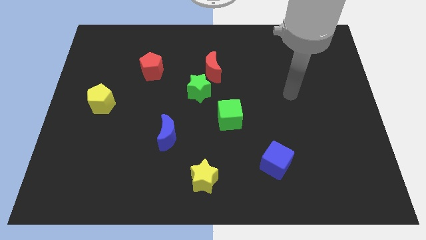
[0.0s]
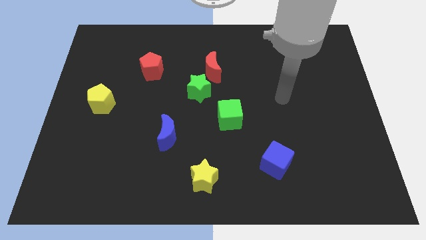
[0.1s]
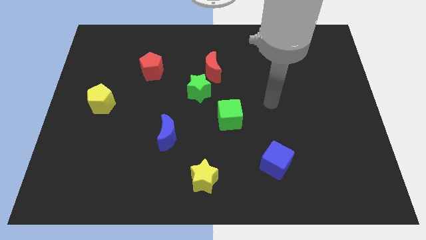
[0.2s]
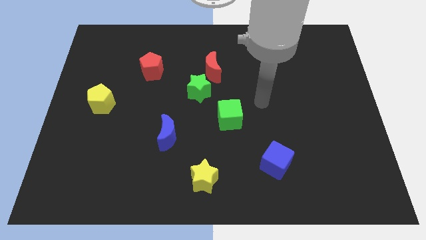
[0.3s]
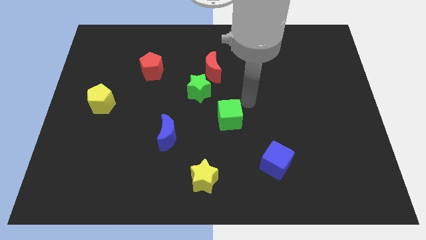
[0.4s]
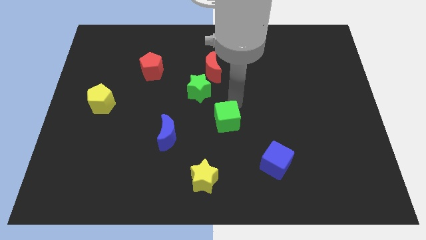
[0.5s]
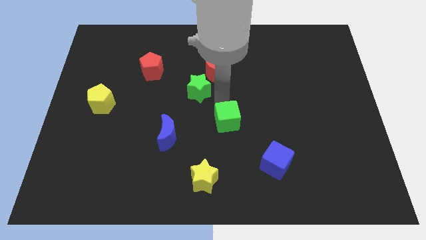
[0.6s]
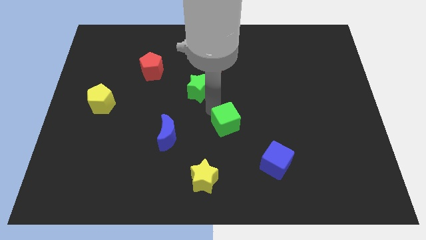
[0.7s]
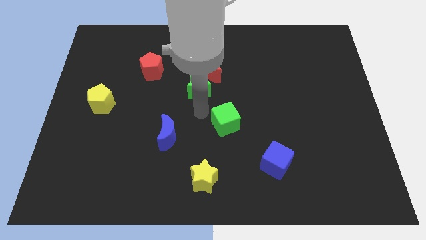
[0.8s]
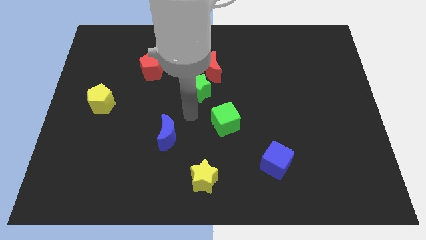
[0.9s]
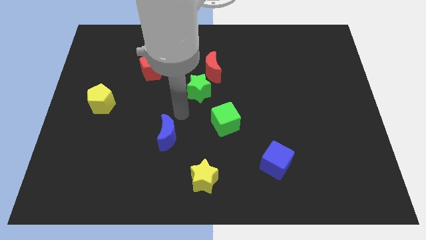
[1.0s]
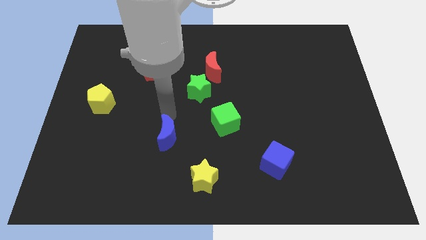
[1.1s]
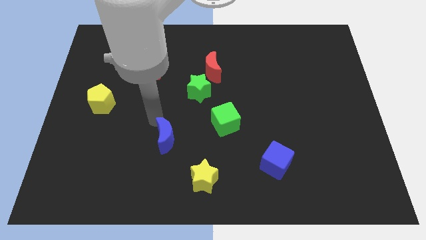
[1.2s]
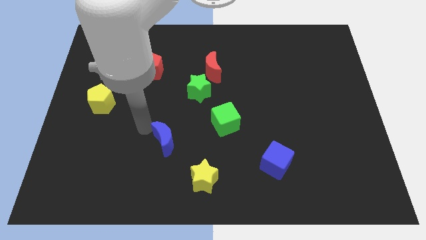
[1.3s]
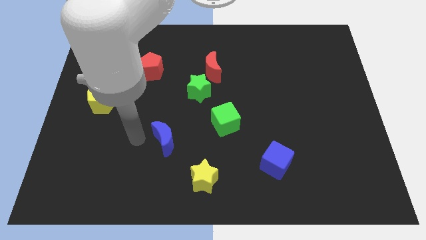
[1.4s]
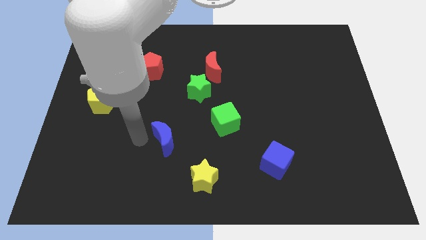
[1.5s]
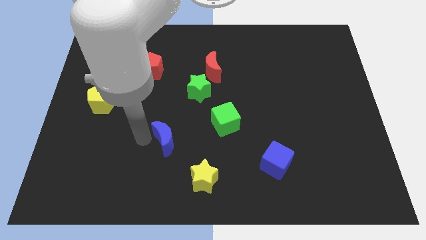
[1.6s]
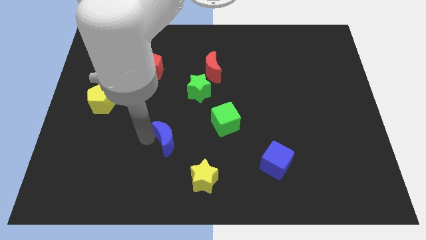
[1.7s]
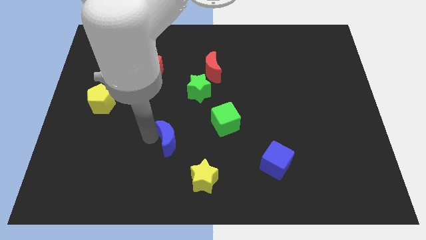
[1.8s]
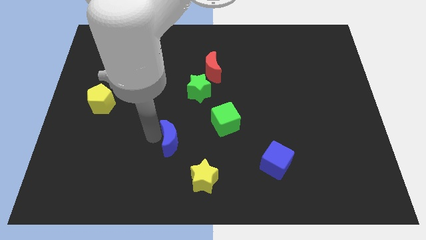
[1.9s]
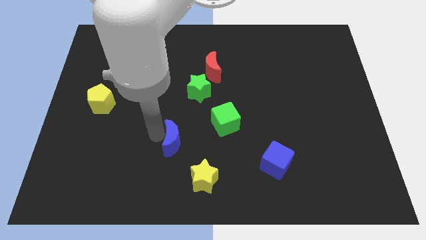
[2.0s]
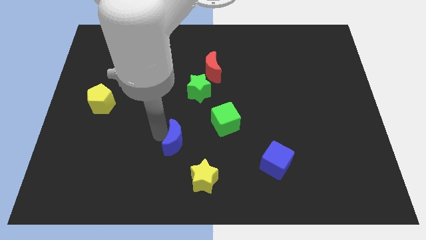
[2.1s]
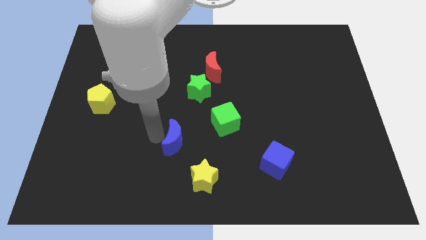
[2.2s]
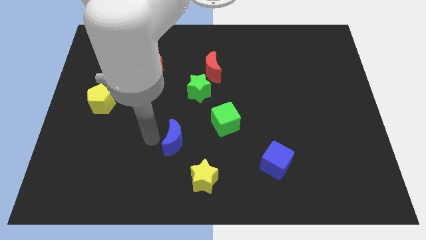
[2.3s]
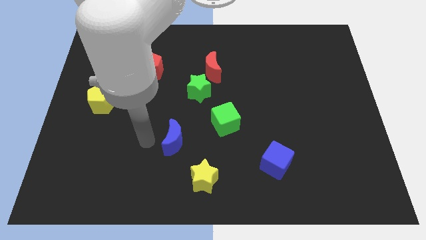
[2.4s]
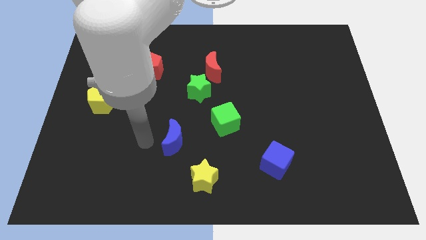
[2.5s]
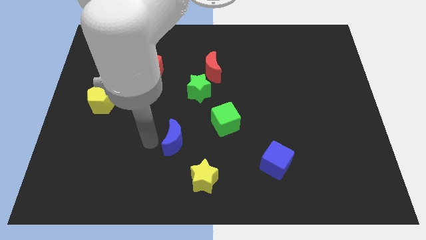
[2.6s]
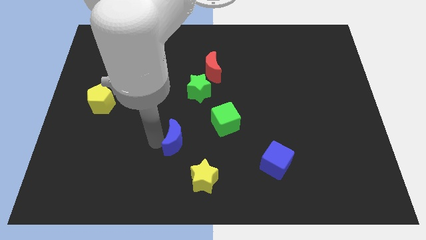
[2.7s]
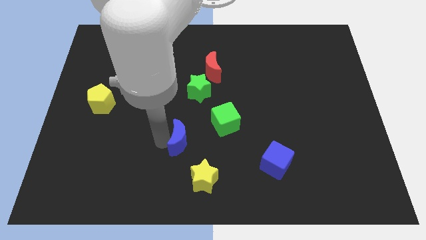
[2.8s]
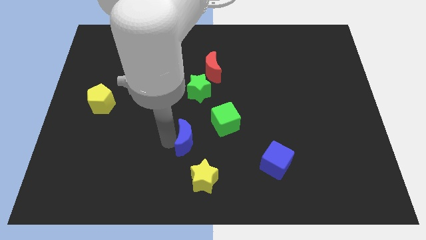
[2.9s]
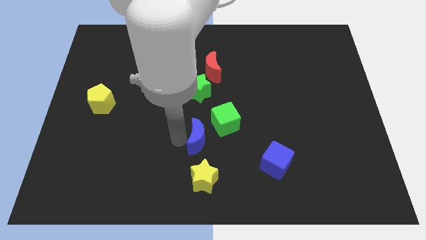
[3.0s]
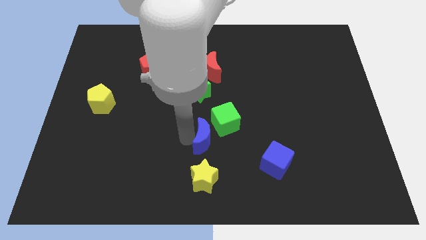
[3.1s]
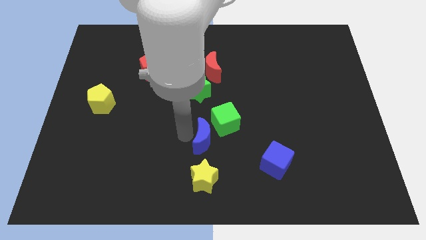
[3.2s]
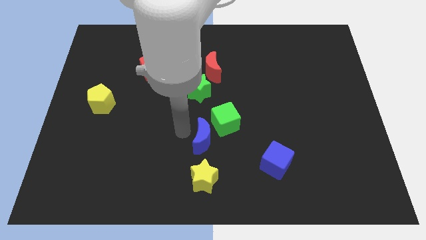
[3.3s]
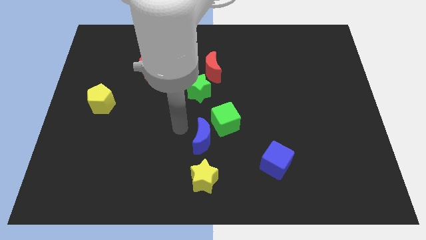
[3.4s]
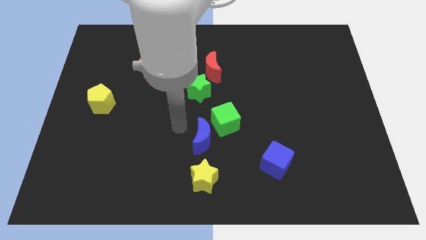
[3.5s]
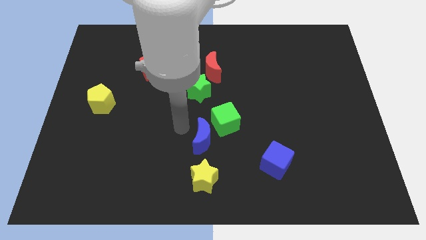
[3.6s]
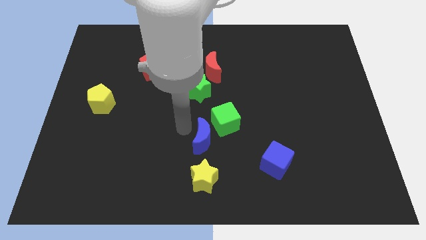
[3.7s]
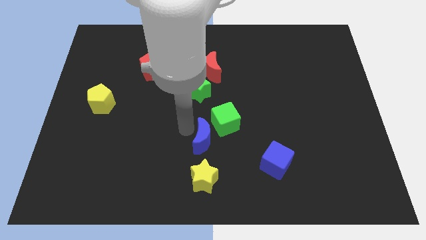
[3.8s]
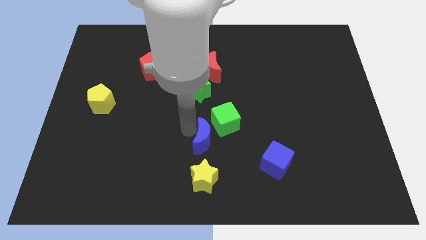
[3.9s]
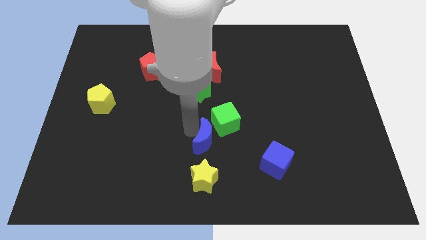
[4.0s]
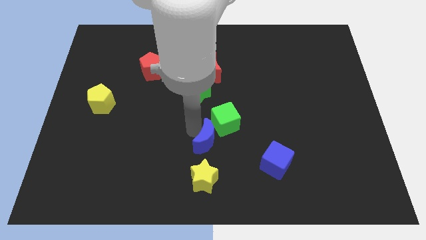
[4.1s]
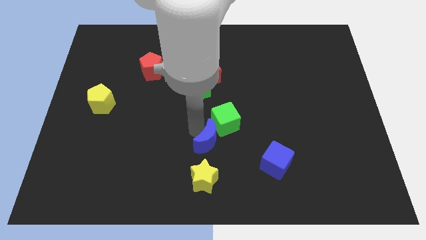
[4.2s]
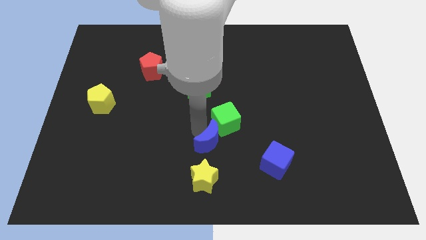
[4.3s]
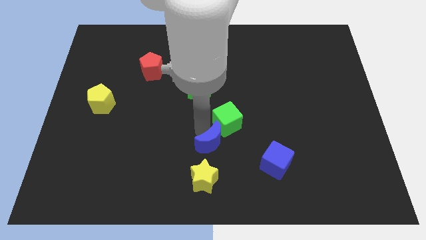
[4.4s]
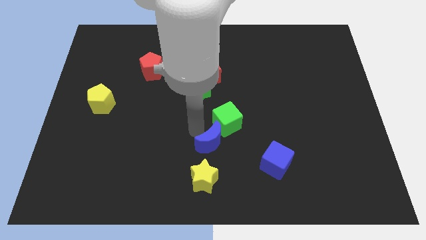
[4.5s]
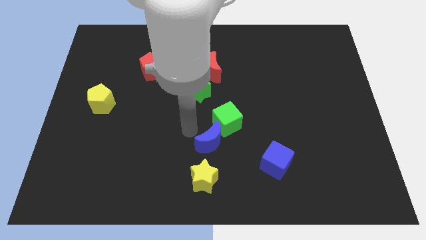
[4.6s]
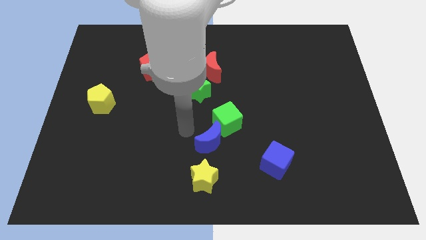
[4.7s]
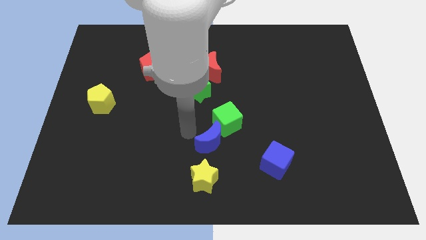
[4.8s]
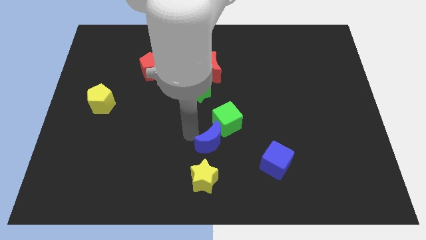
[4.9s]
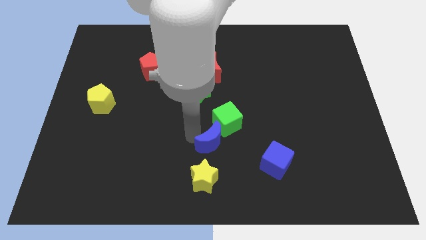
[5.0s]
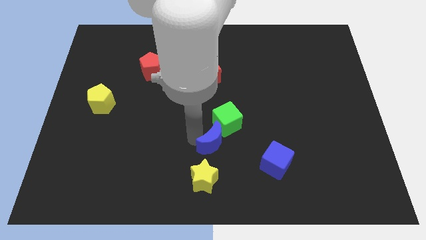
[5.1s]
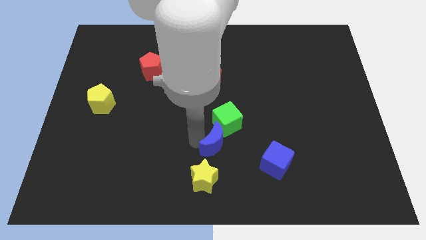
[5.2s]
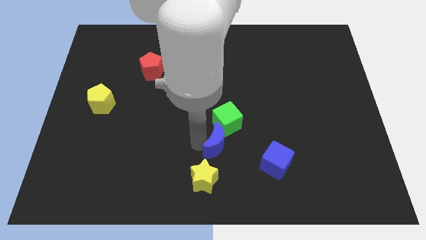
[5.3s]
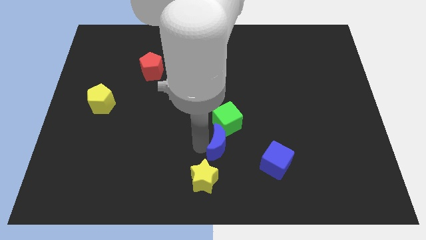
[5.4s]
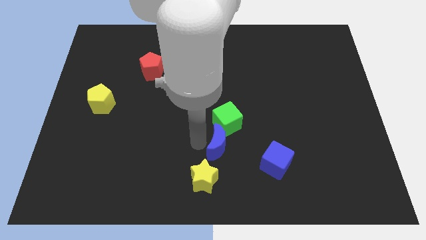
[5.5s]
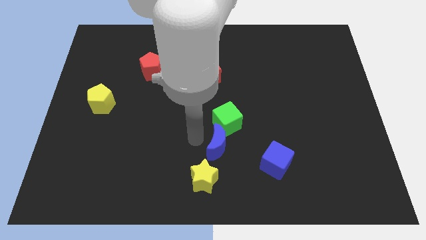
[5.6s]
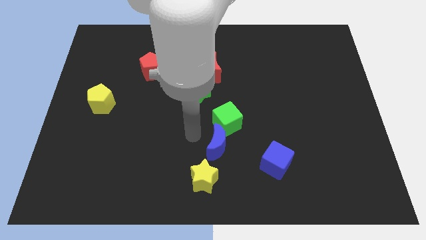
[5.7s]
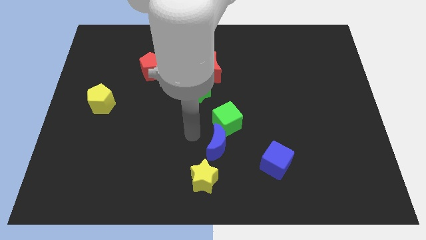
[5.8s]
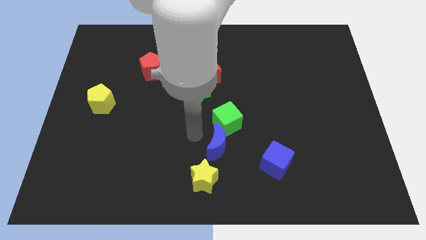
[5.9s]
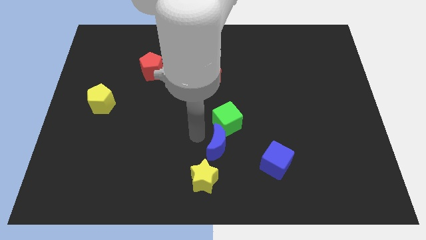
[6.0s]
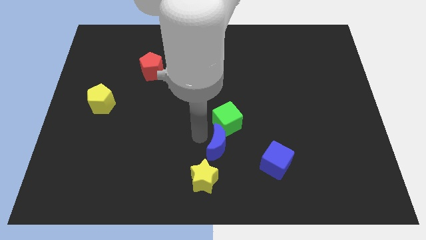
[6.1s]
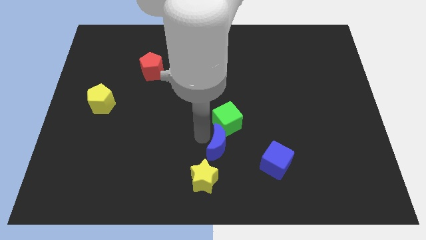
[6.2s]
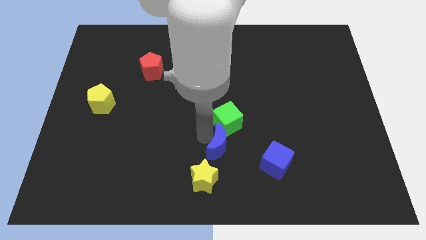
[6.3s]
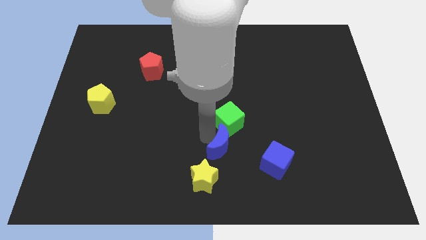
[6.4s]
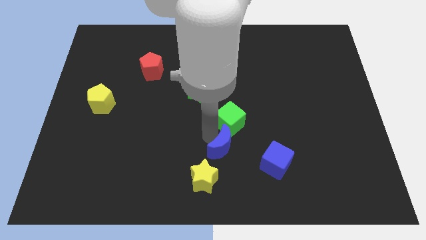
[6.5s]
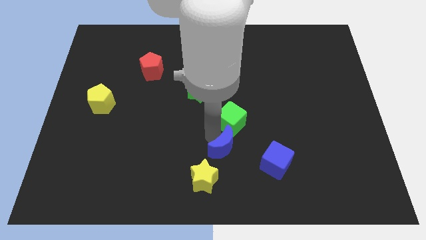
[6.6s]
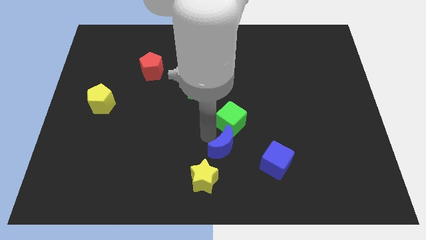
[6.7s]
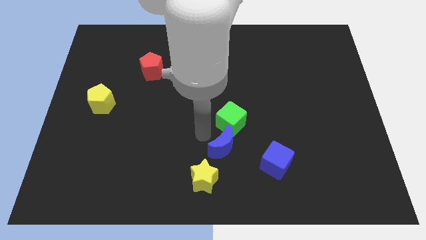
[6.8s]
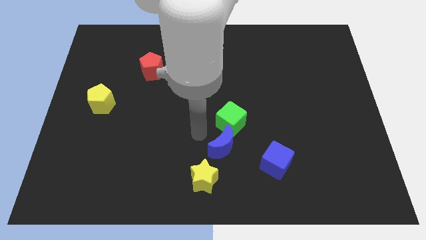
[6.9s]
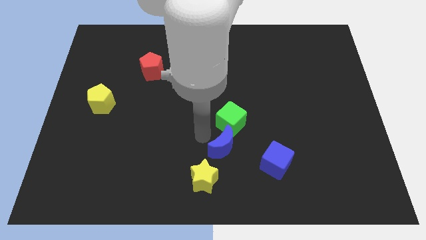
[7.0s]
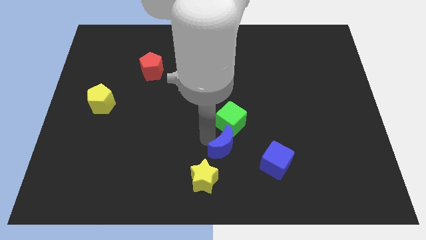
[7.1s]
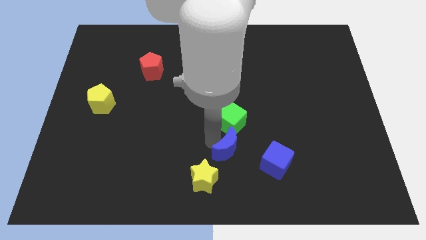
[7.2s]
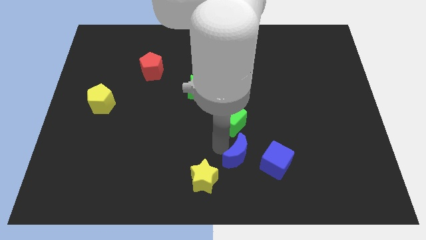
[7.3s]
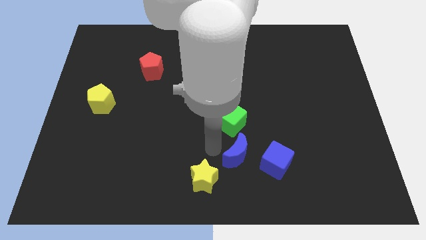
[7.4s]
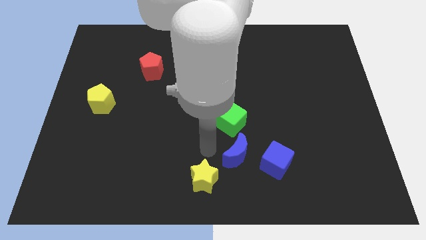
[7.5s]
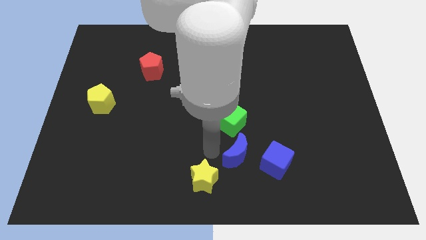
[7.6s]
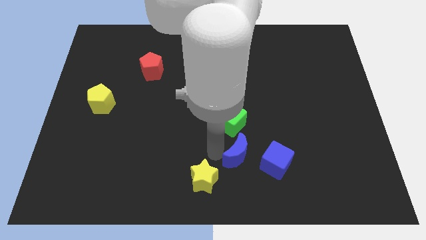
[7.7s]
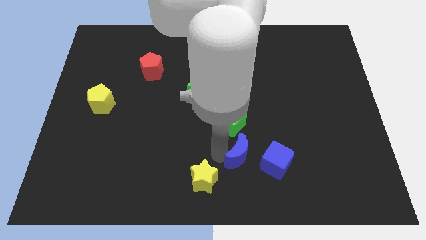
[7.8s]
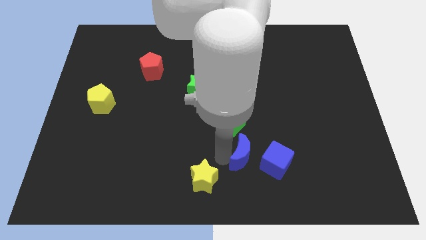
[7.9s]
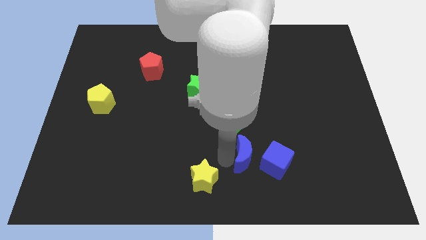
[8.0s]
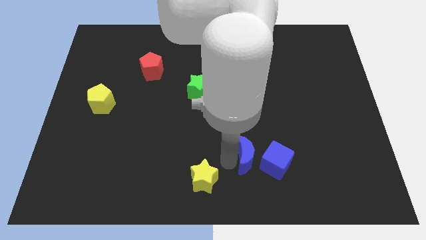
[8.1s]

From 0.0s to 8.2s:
push the blue moon towards the blue cube

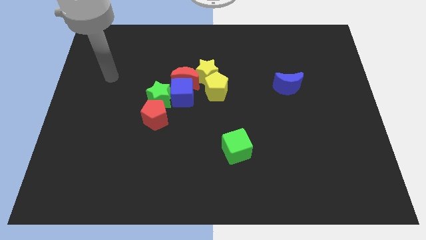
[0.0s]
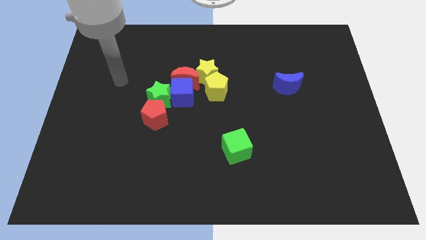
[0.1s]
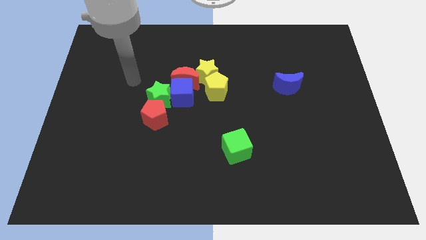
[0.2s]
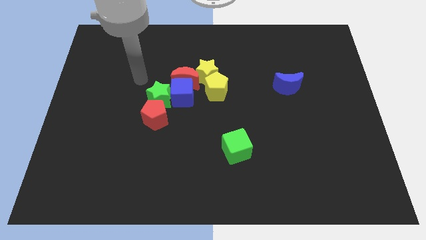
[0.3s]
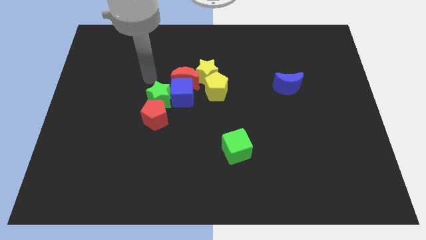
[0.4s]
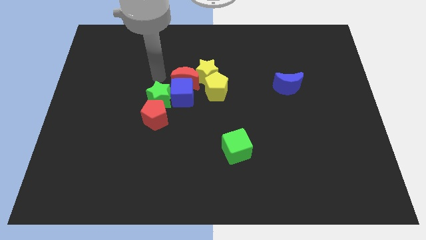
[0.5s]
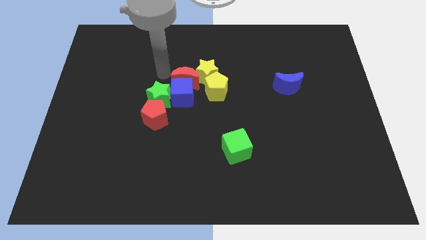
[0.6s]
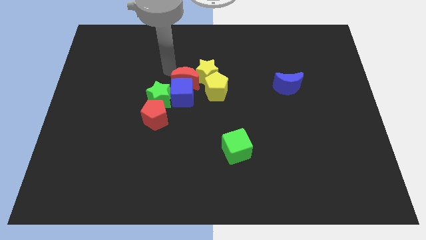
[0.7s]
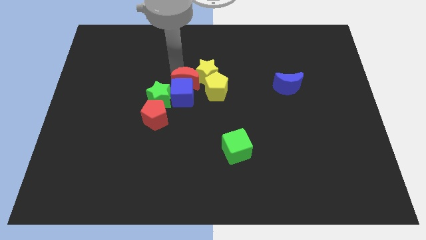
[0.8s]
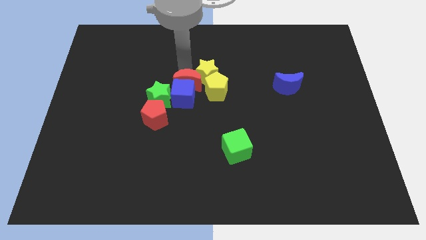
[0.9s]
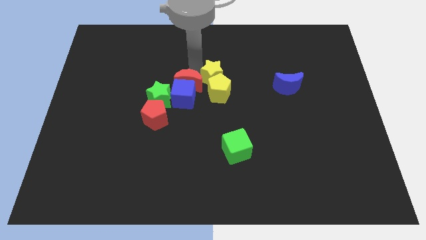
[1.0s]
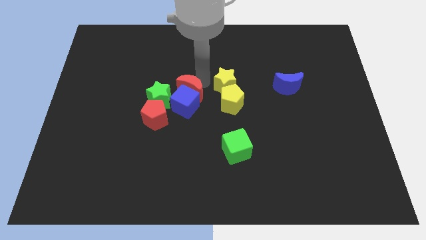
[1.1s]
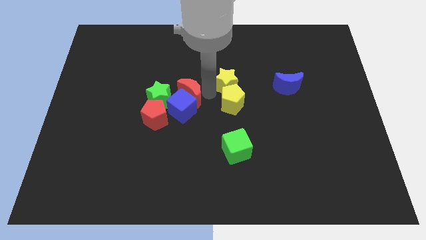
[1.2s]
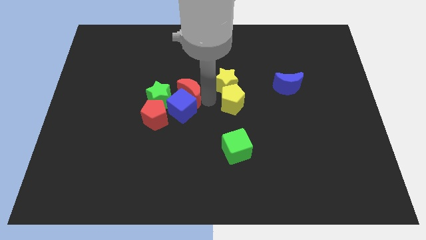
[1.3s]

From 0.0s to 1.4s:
put the blue cube towards the red pentagon
